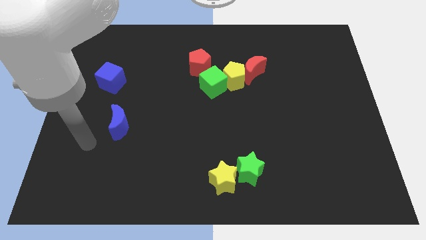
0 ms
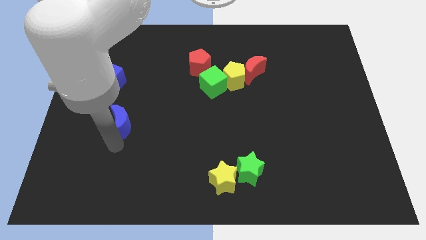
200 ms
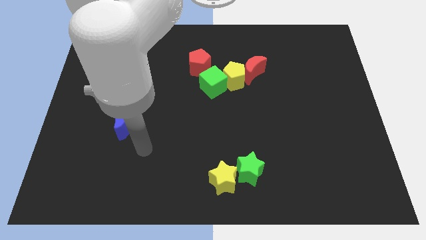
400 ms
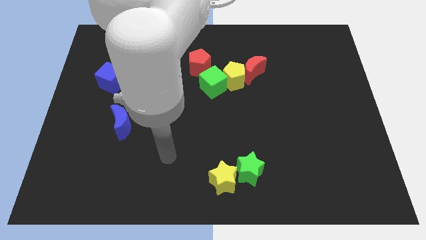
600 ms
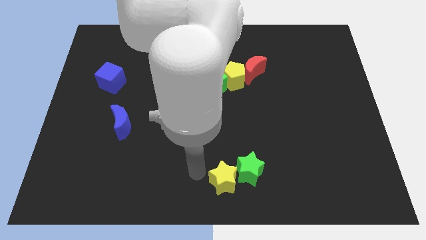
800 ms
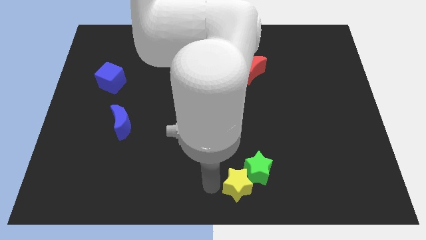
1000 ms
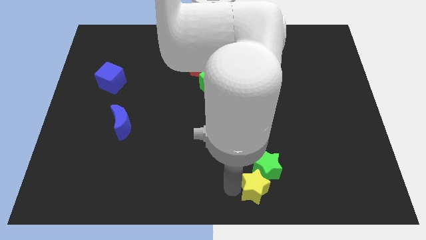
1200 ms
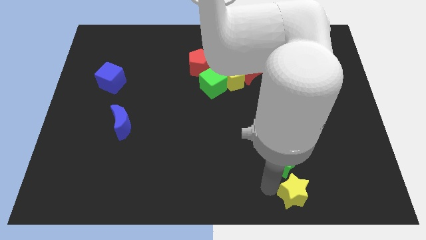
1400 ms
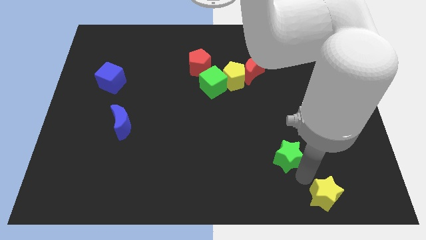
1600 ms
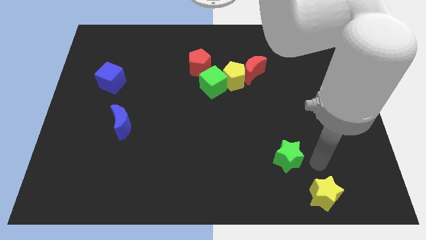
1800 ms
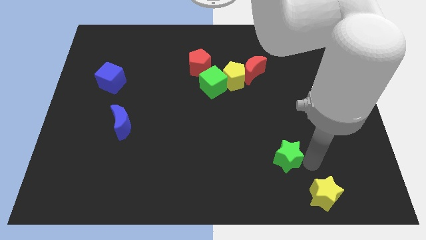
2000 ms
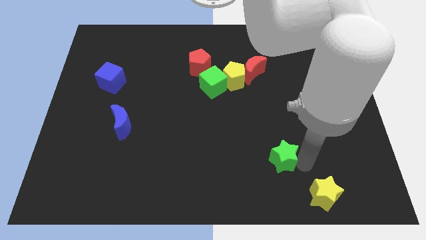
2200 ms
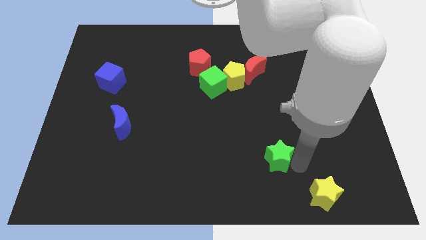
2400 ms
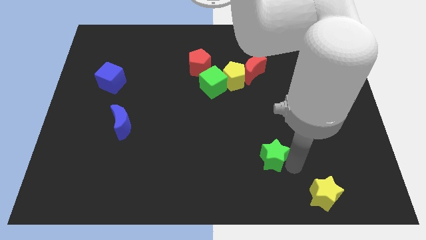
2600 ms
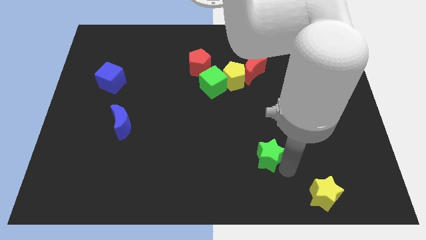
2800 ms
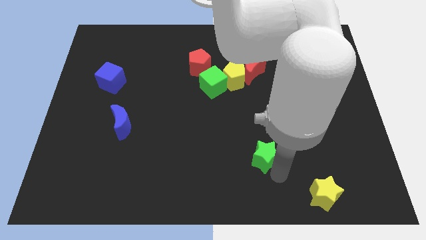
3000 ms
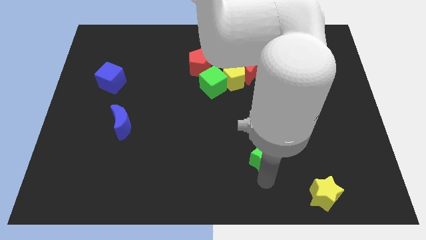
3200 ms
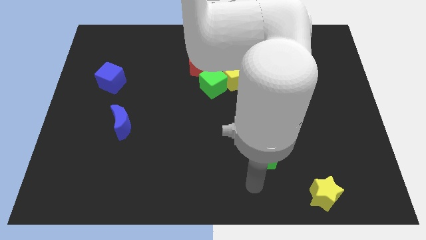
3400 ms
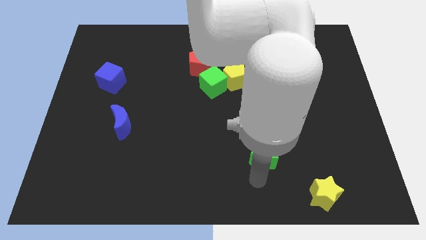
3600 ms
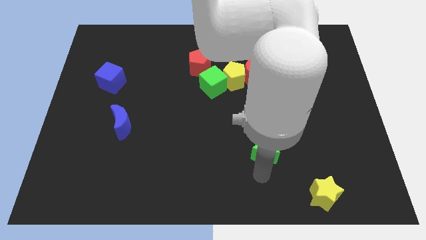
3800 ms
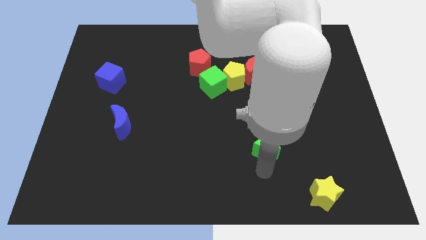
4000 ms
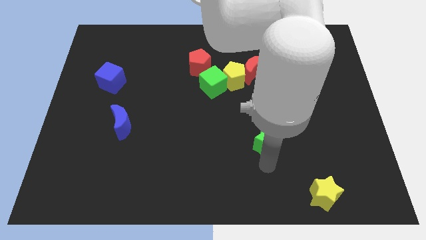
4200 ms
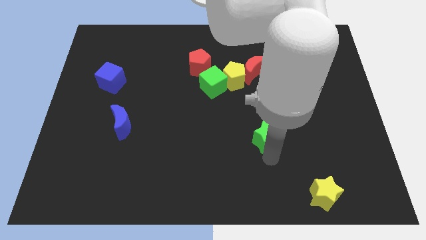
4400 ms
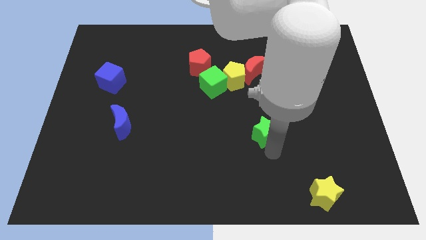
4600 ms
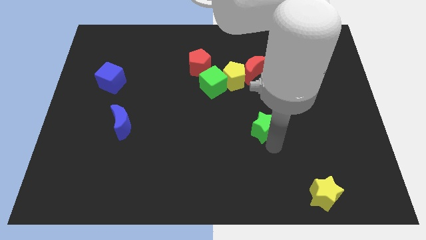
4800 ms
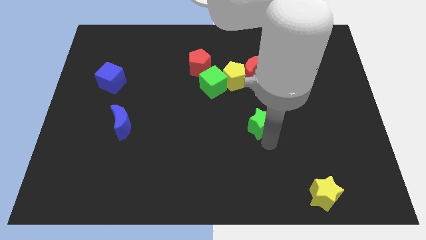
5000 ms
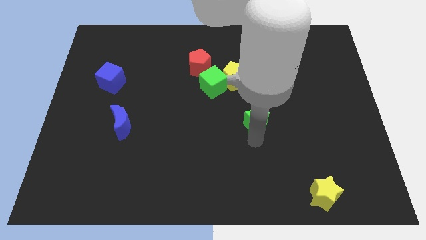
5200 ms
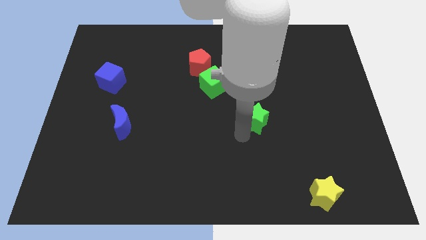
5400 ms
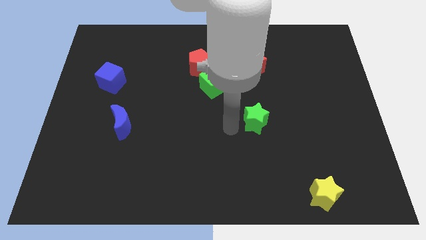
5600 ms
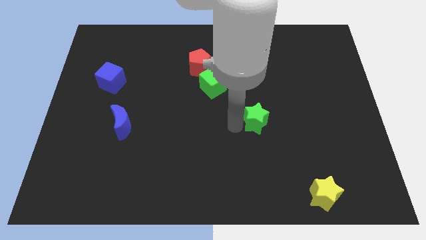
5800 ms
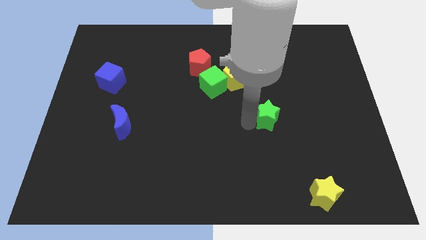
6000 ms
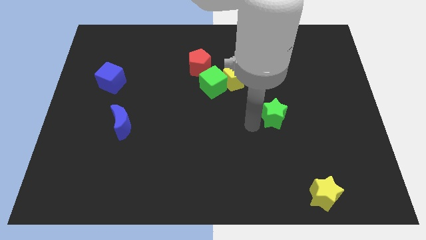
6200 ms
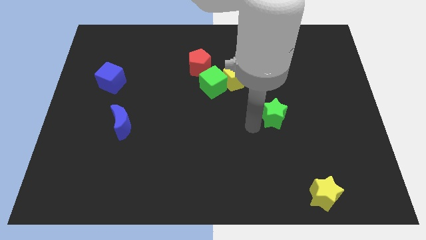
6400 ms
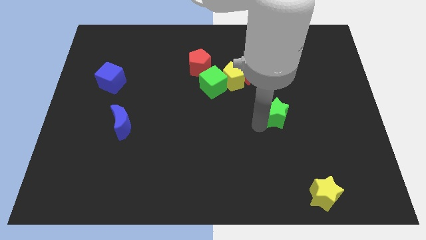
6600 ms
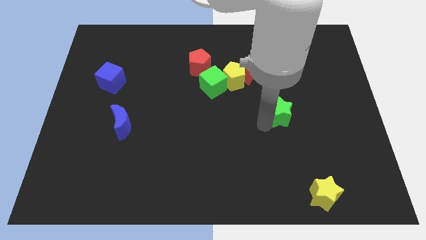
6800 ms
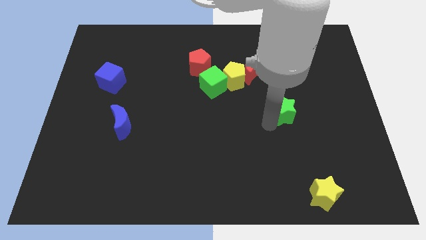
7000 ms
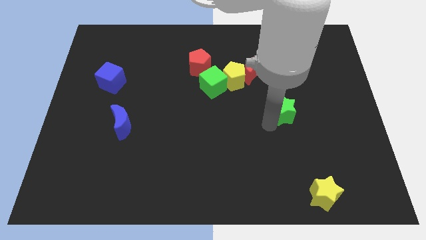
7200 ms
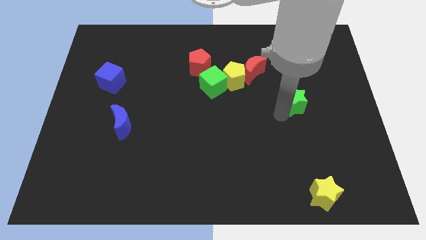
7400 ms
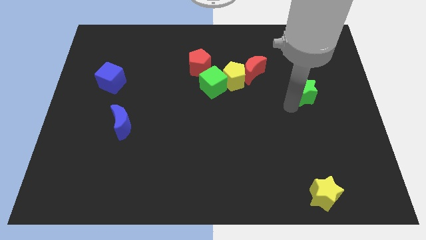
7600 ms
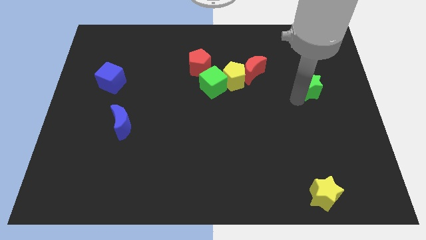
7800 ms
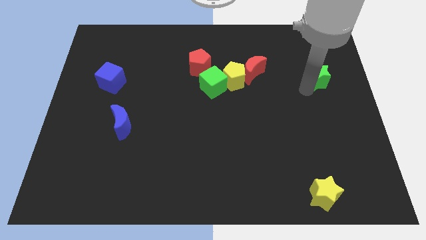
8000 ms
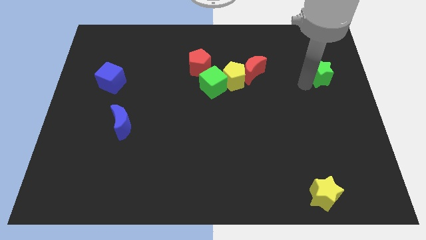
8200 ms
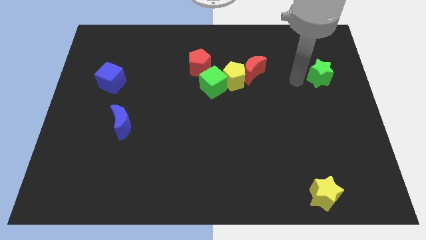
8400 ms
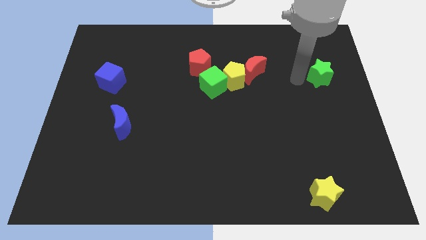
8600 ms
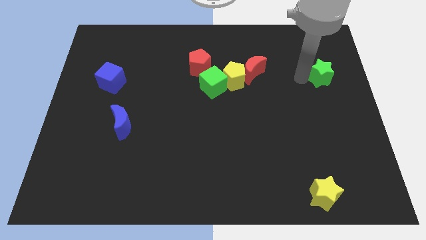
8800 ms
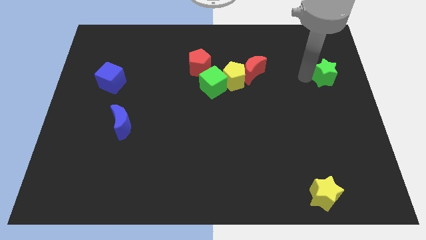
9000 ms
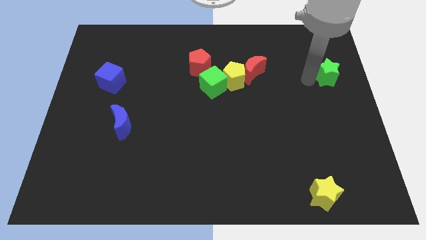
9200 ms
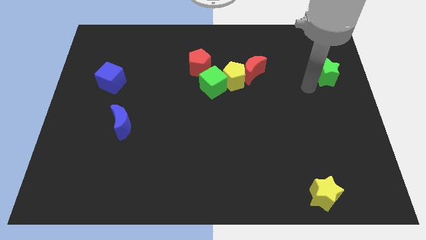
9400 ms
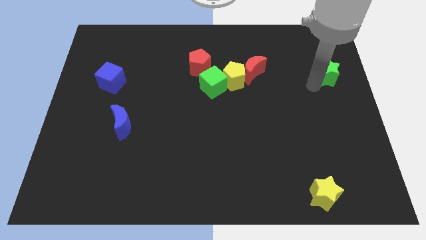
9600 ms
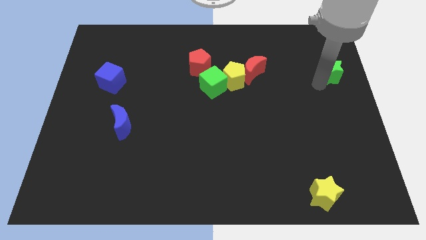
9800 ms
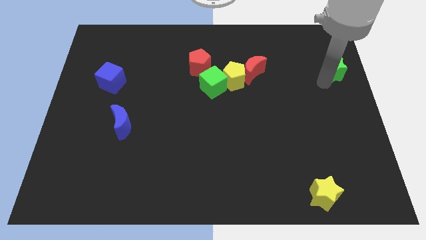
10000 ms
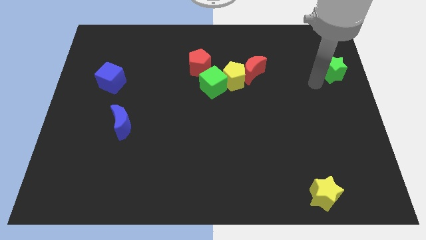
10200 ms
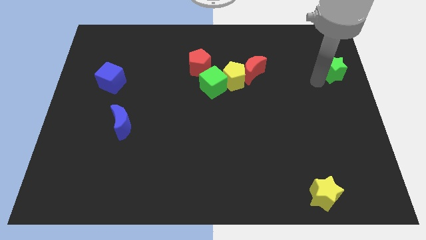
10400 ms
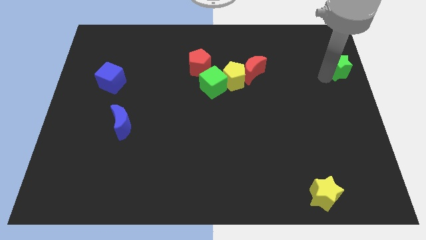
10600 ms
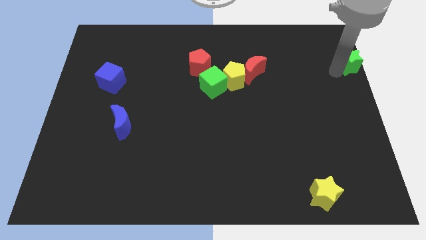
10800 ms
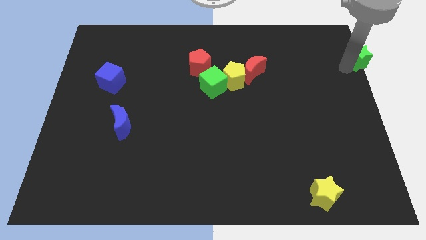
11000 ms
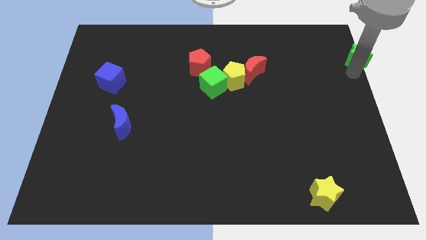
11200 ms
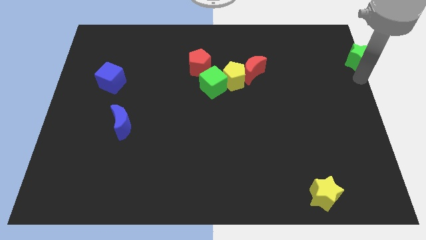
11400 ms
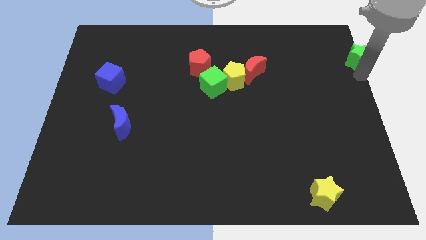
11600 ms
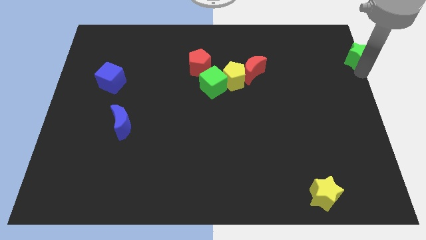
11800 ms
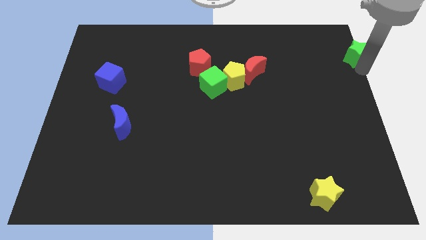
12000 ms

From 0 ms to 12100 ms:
push the green star to the top right of the board
